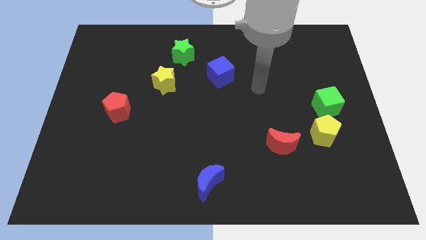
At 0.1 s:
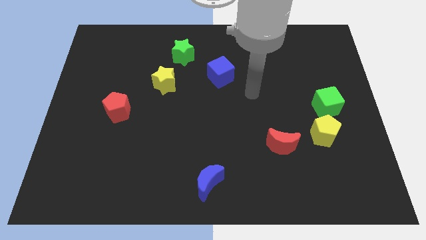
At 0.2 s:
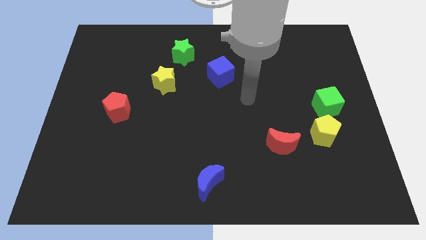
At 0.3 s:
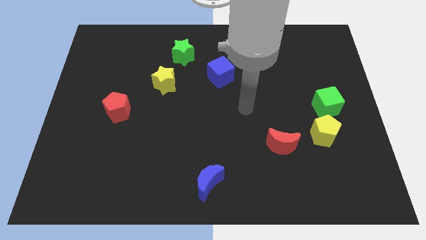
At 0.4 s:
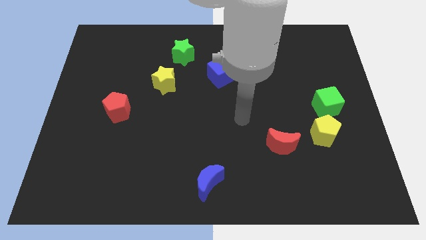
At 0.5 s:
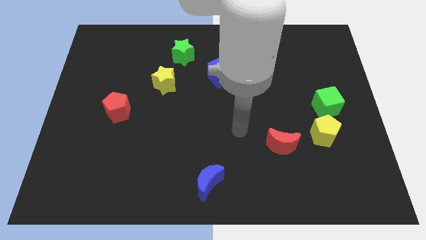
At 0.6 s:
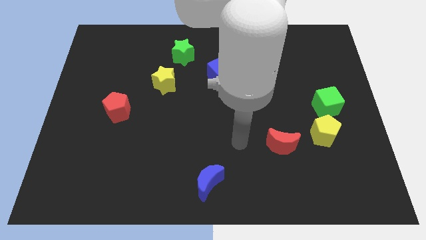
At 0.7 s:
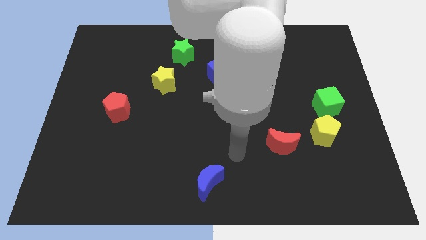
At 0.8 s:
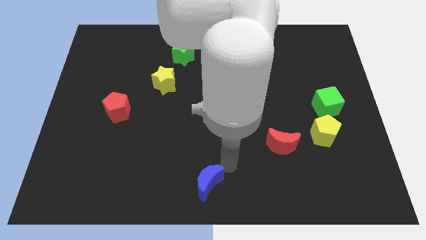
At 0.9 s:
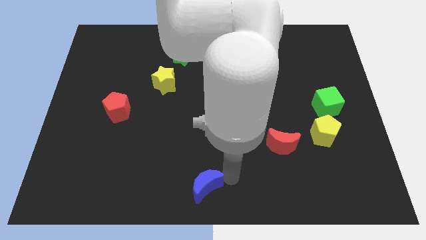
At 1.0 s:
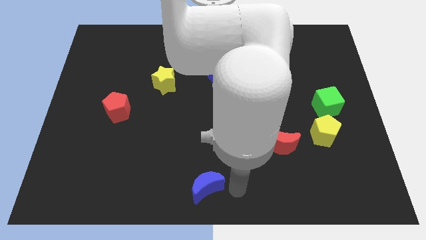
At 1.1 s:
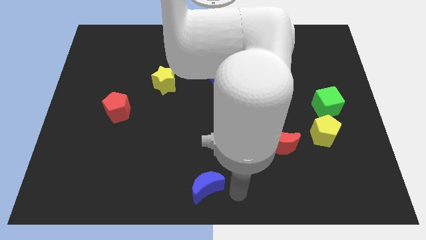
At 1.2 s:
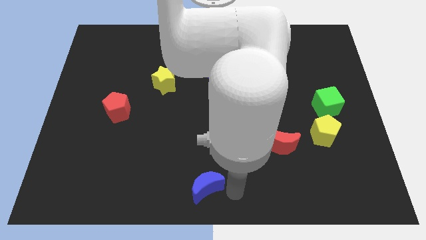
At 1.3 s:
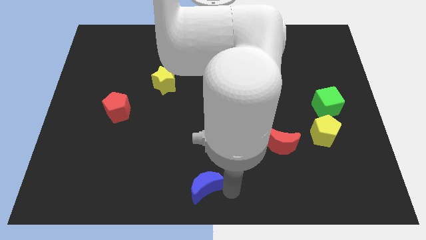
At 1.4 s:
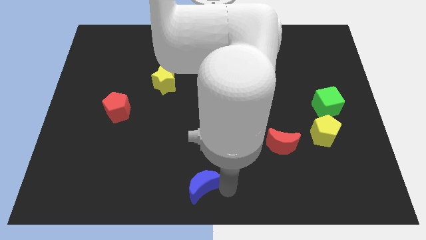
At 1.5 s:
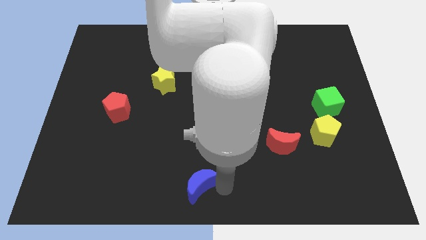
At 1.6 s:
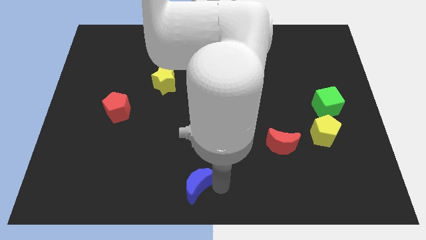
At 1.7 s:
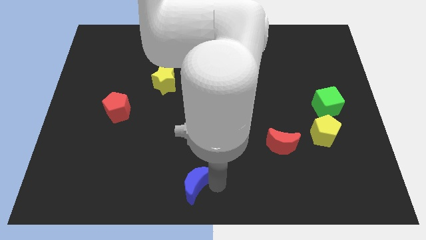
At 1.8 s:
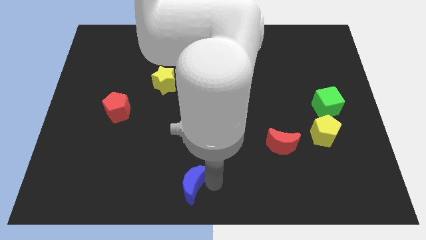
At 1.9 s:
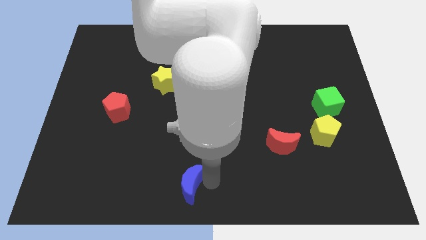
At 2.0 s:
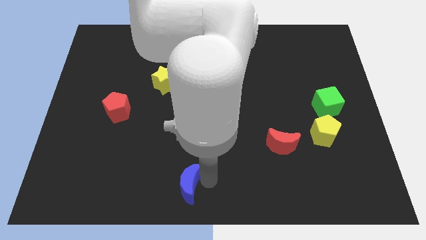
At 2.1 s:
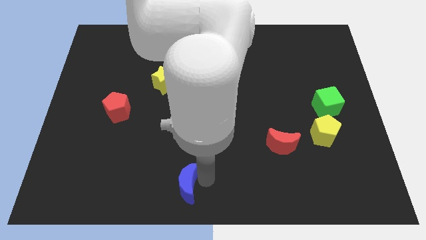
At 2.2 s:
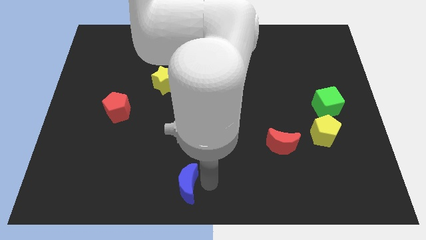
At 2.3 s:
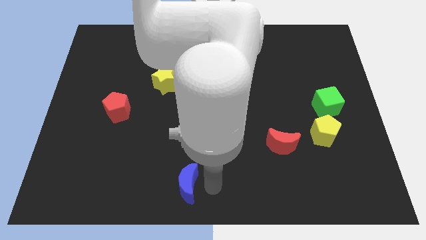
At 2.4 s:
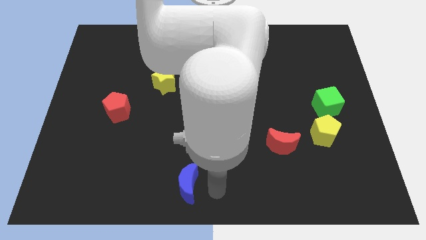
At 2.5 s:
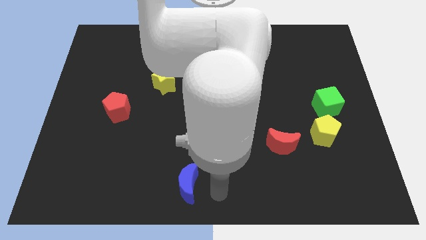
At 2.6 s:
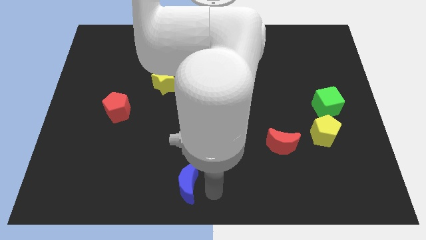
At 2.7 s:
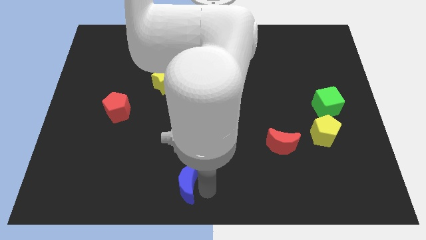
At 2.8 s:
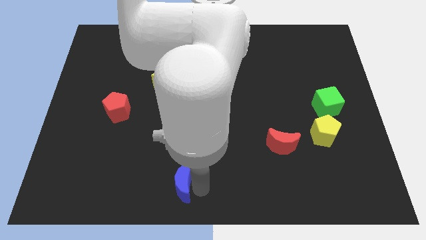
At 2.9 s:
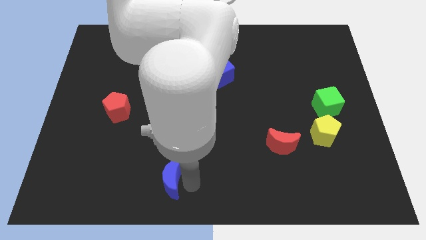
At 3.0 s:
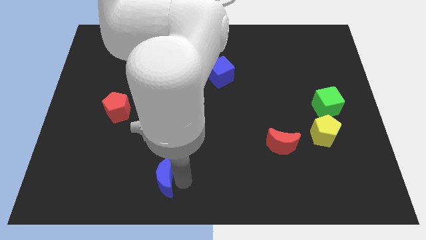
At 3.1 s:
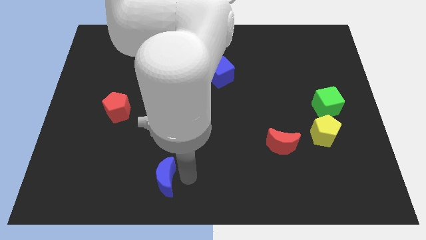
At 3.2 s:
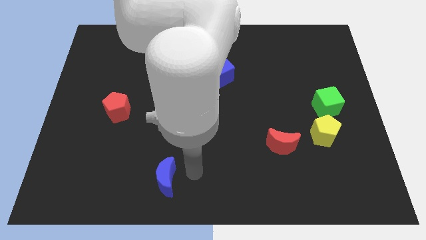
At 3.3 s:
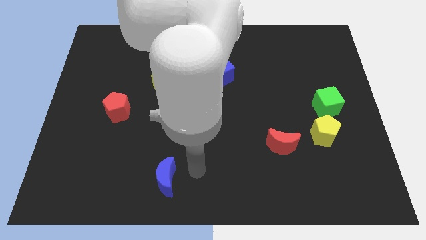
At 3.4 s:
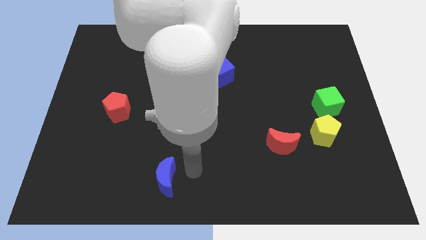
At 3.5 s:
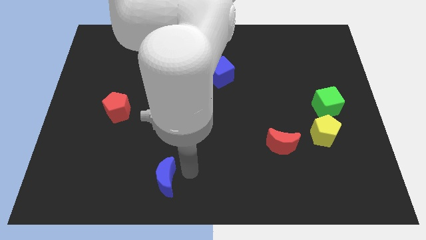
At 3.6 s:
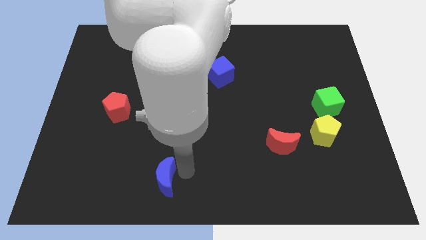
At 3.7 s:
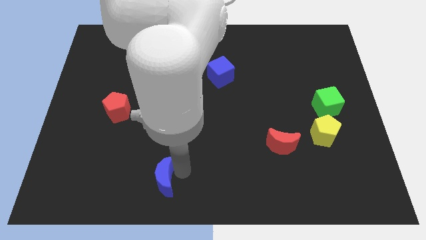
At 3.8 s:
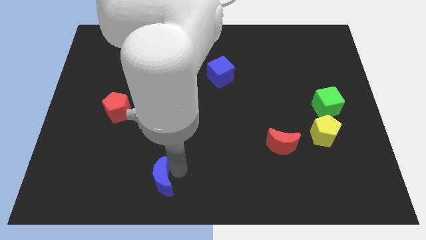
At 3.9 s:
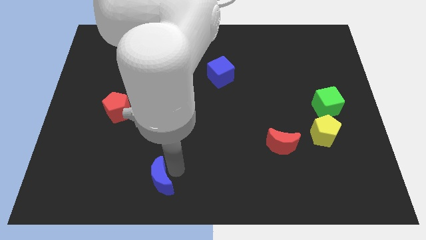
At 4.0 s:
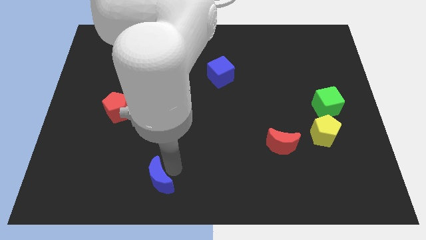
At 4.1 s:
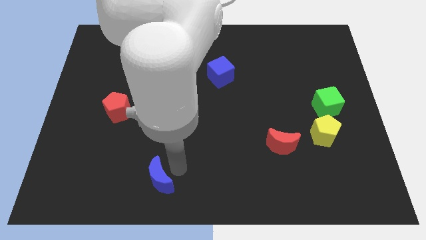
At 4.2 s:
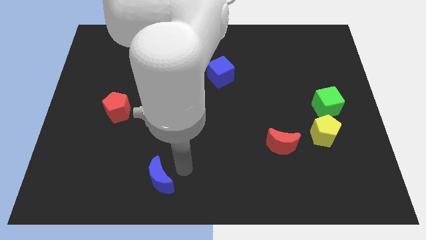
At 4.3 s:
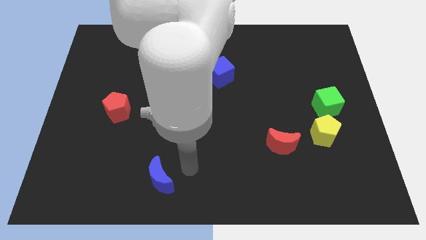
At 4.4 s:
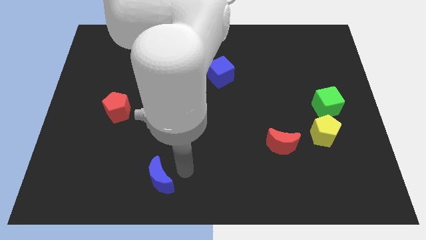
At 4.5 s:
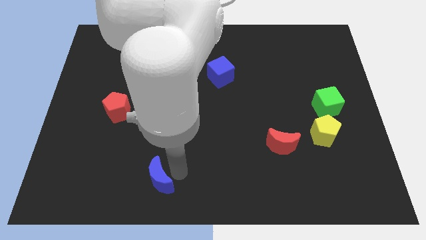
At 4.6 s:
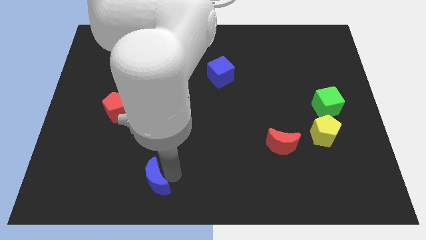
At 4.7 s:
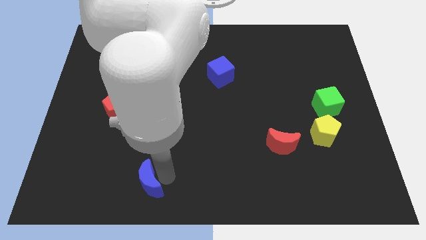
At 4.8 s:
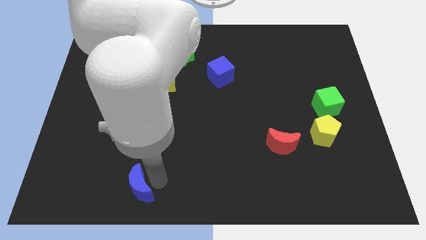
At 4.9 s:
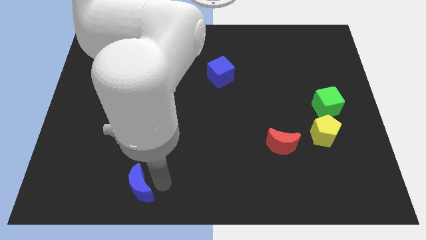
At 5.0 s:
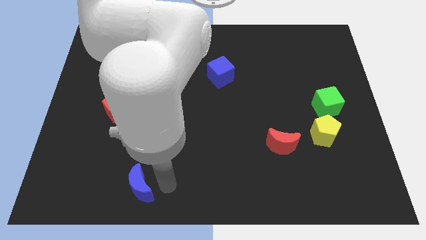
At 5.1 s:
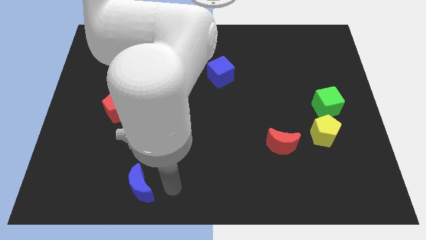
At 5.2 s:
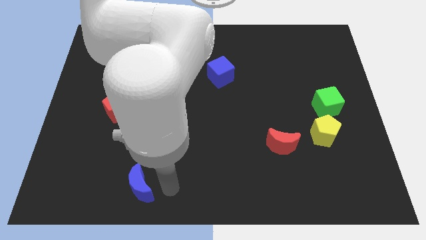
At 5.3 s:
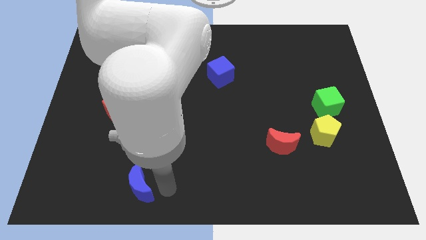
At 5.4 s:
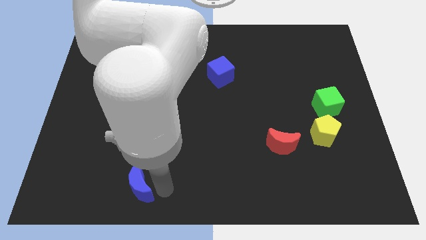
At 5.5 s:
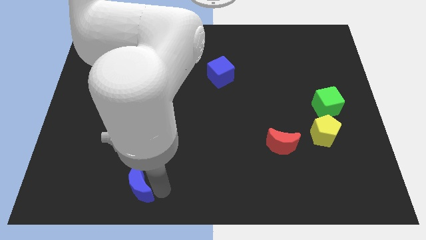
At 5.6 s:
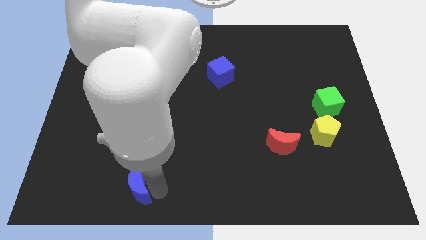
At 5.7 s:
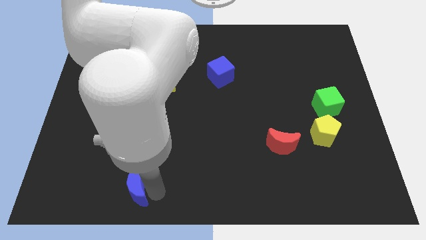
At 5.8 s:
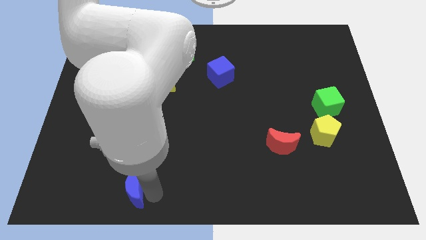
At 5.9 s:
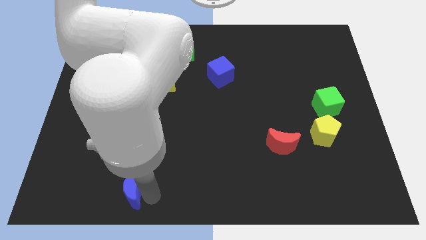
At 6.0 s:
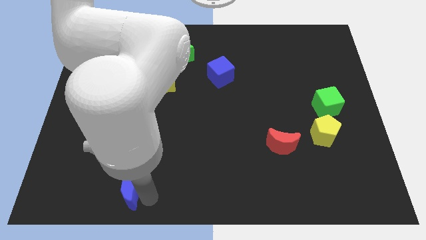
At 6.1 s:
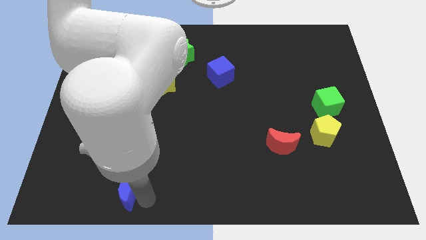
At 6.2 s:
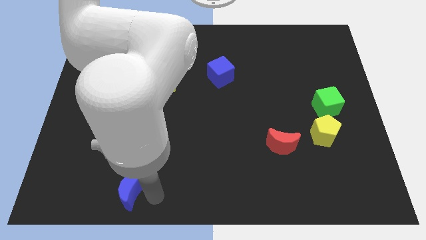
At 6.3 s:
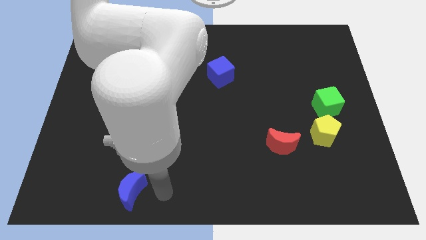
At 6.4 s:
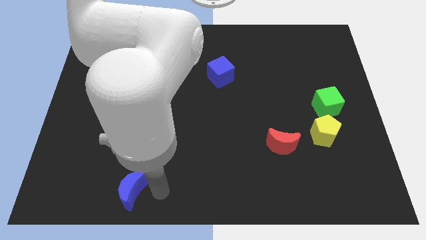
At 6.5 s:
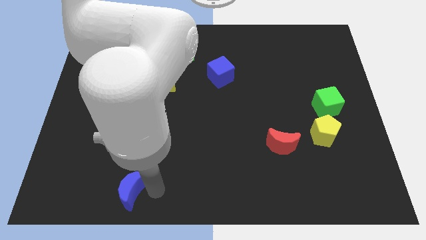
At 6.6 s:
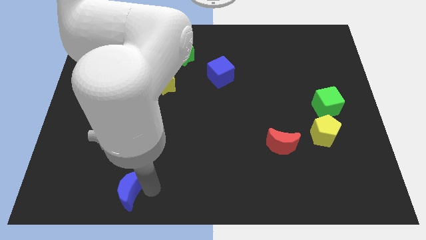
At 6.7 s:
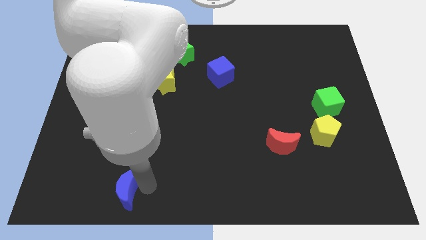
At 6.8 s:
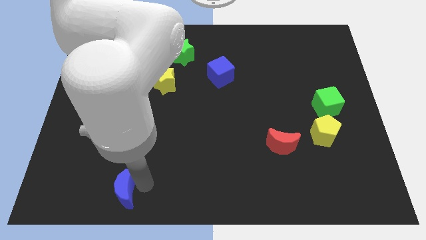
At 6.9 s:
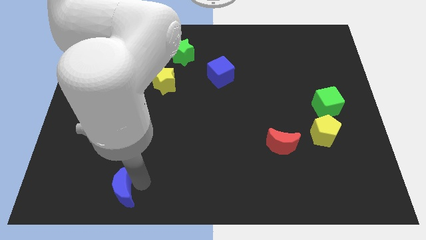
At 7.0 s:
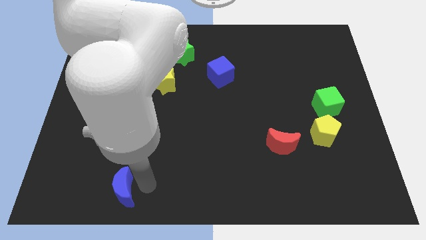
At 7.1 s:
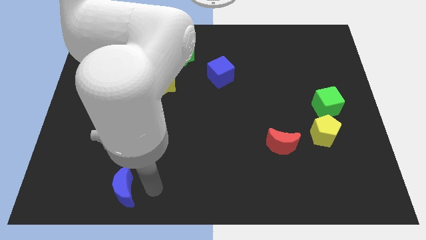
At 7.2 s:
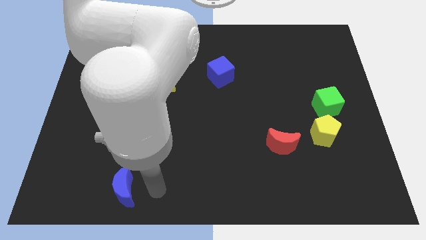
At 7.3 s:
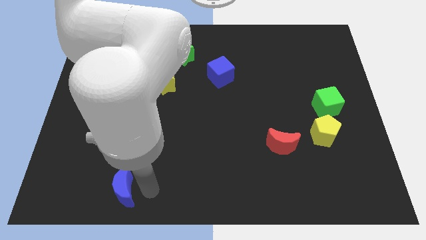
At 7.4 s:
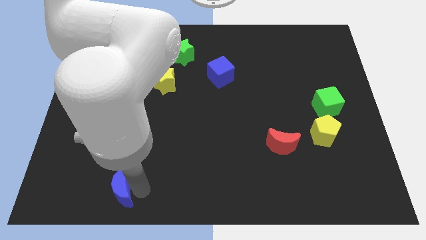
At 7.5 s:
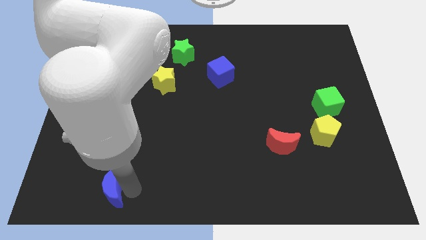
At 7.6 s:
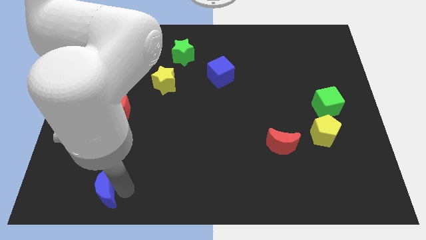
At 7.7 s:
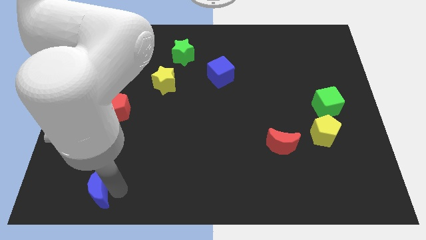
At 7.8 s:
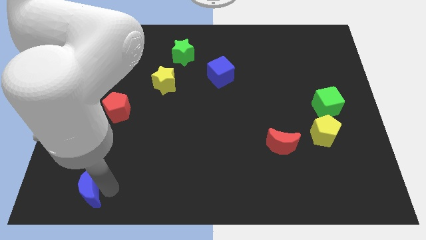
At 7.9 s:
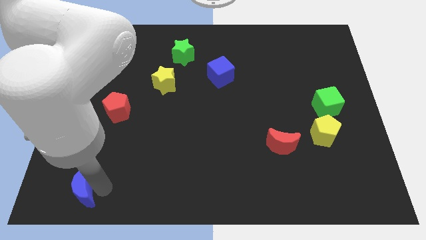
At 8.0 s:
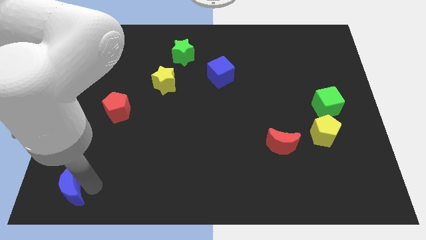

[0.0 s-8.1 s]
push the blue moon to the bottom left
